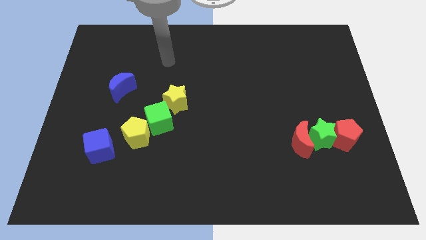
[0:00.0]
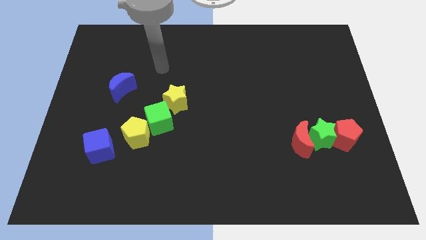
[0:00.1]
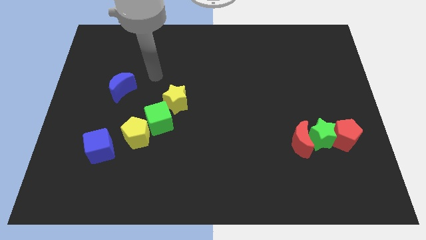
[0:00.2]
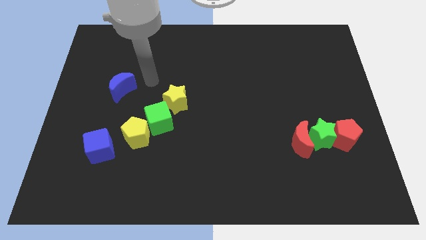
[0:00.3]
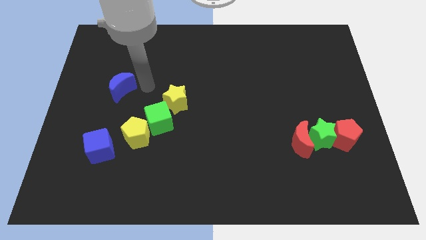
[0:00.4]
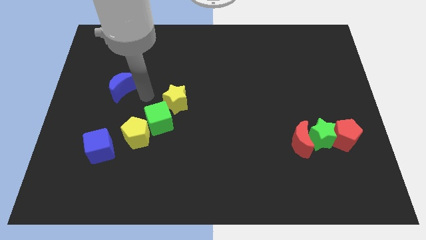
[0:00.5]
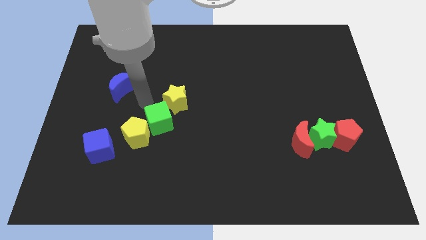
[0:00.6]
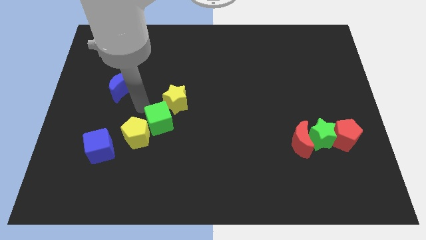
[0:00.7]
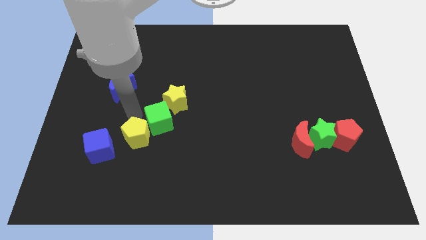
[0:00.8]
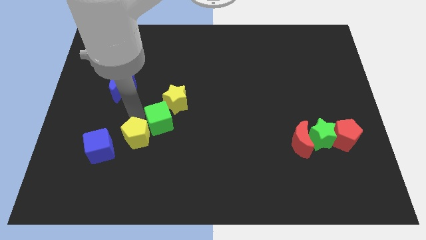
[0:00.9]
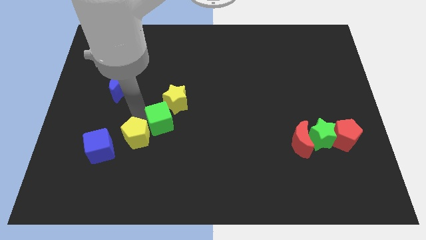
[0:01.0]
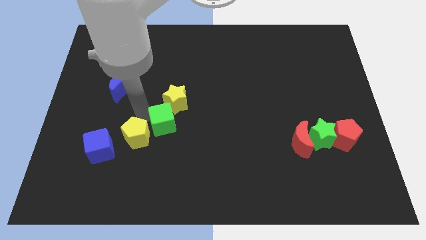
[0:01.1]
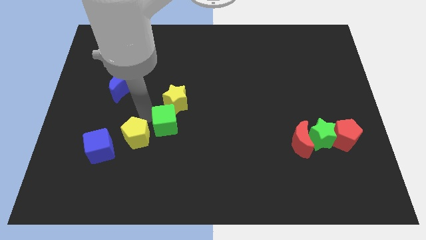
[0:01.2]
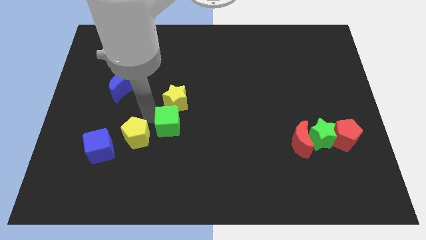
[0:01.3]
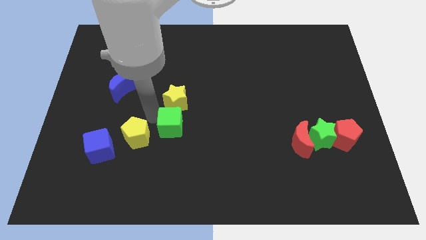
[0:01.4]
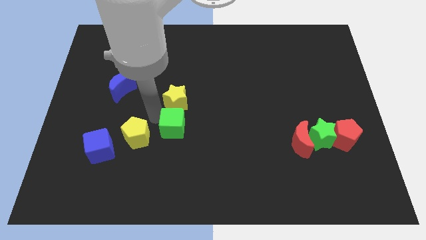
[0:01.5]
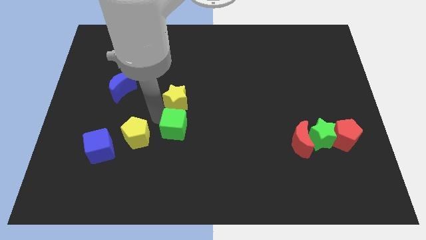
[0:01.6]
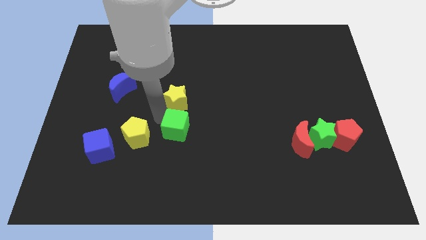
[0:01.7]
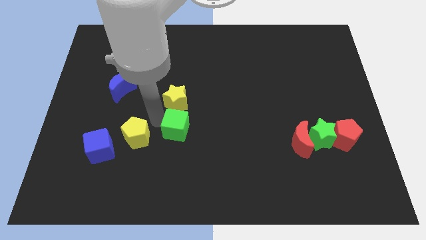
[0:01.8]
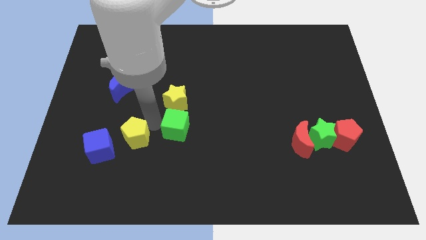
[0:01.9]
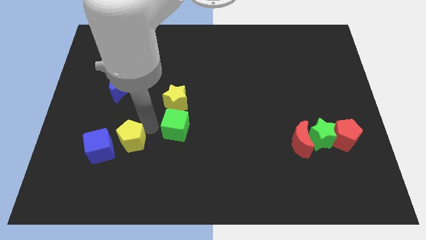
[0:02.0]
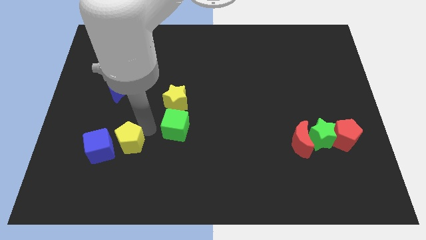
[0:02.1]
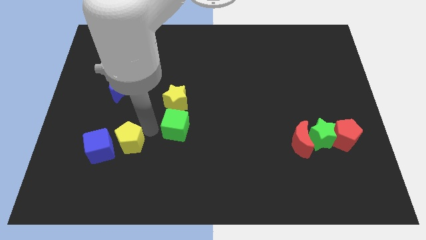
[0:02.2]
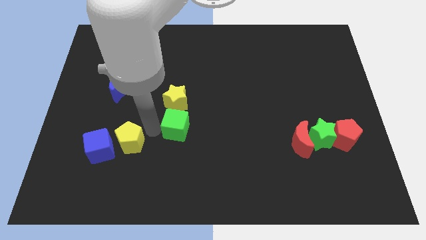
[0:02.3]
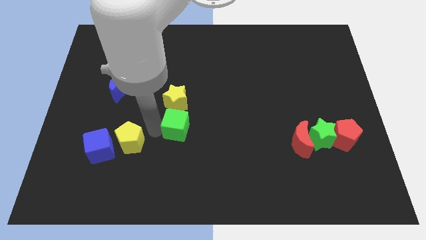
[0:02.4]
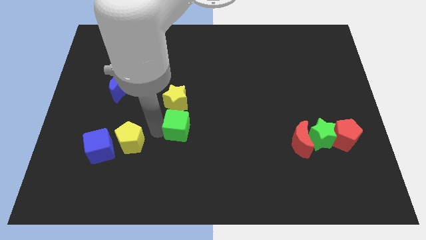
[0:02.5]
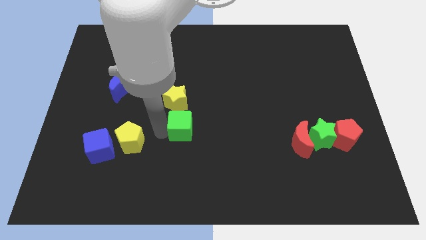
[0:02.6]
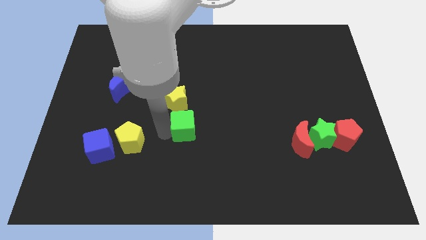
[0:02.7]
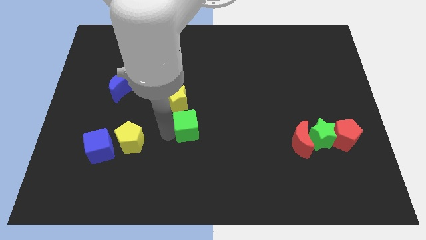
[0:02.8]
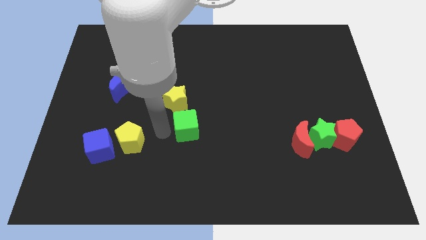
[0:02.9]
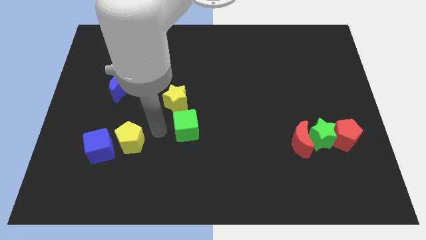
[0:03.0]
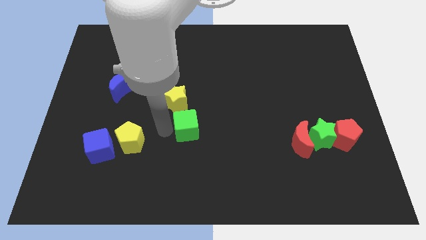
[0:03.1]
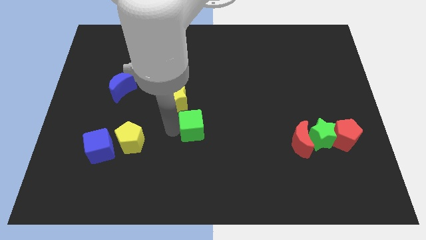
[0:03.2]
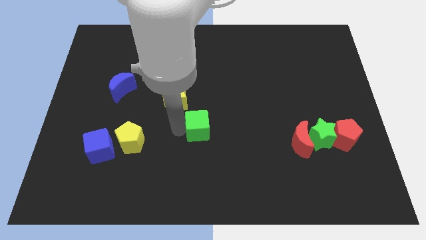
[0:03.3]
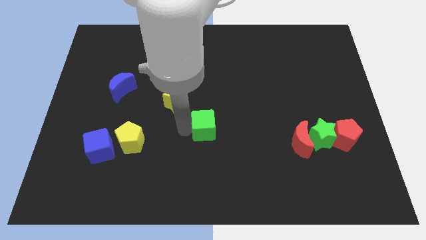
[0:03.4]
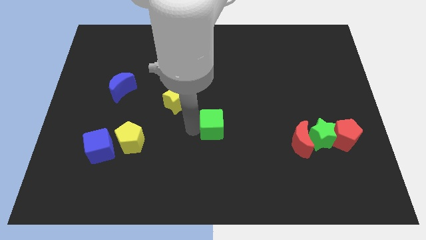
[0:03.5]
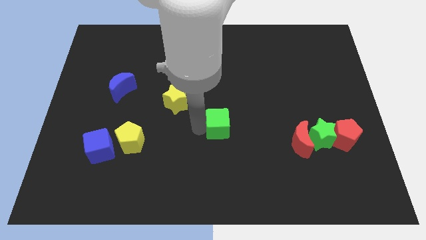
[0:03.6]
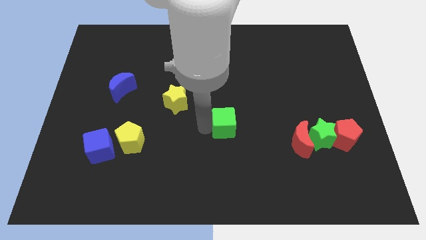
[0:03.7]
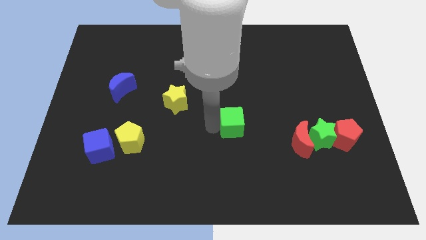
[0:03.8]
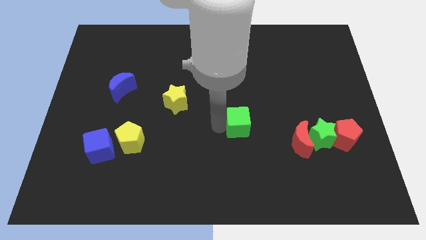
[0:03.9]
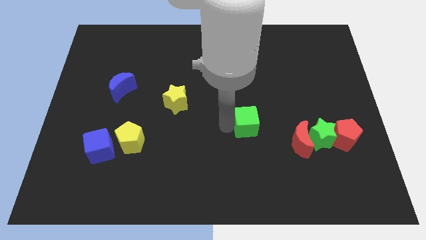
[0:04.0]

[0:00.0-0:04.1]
slide the green cube to the right

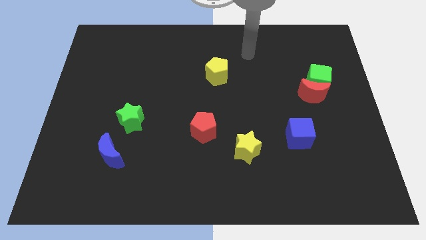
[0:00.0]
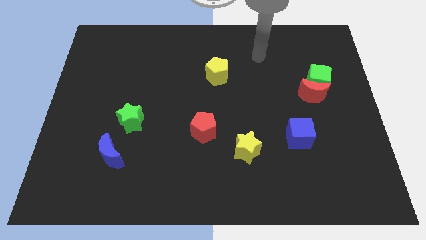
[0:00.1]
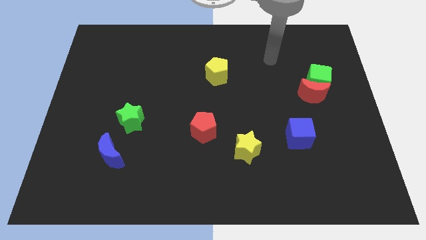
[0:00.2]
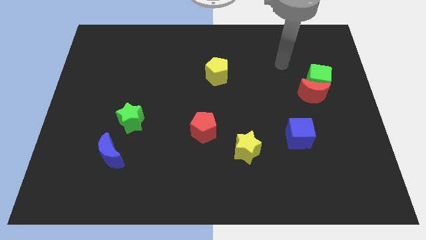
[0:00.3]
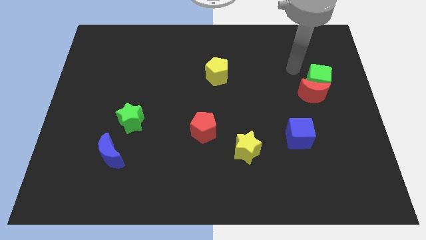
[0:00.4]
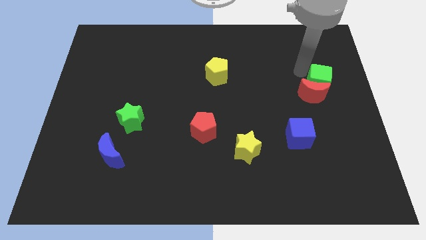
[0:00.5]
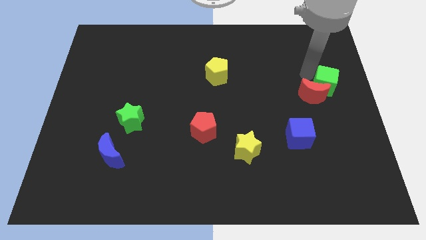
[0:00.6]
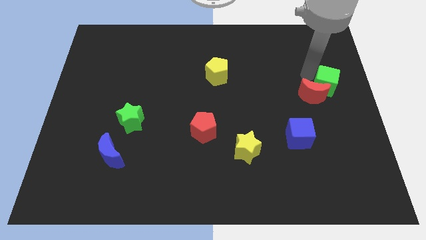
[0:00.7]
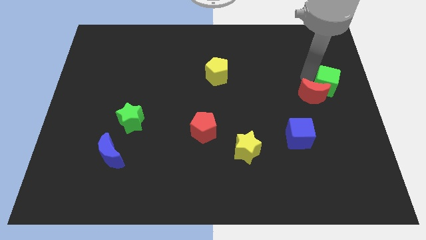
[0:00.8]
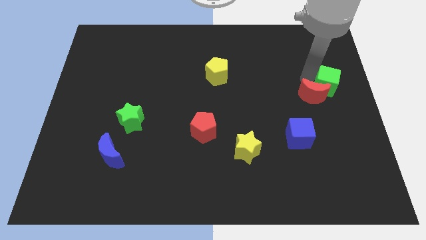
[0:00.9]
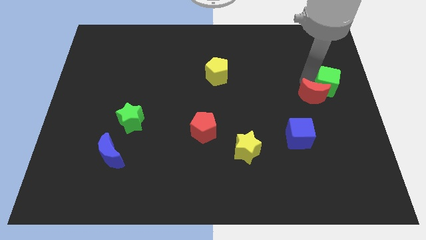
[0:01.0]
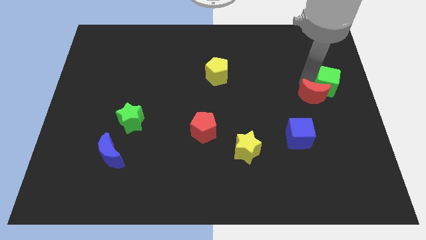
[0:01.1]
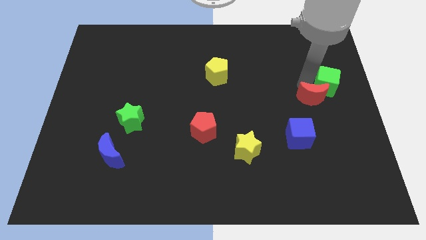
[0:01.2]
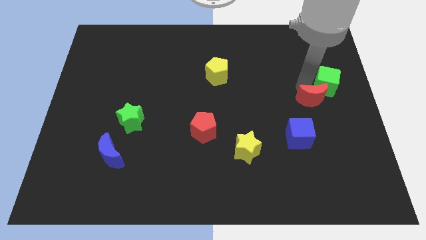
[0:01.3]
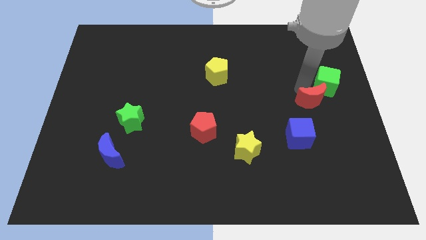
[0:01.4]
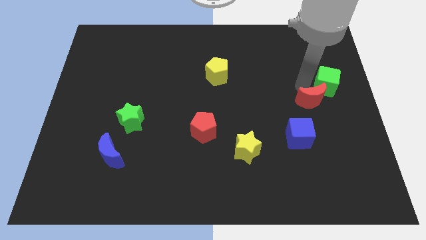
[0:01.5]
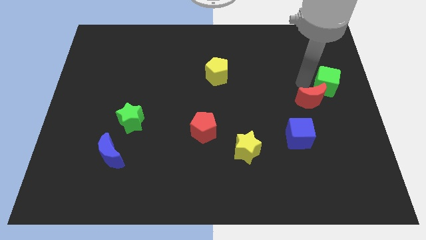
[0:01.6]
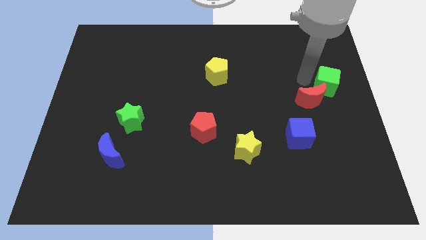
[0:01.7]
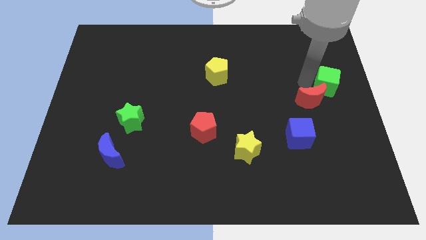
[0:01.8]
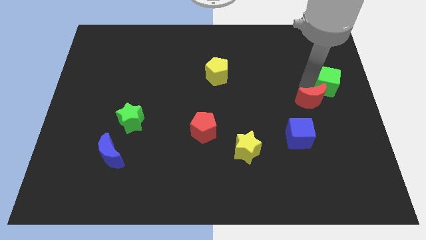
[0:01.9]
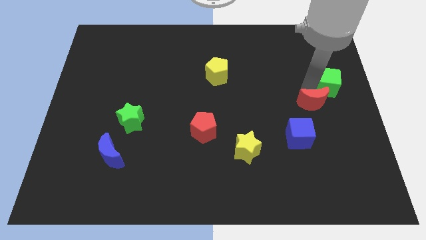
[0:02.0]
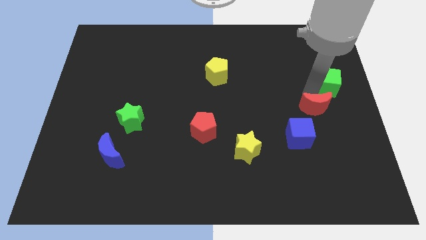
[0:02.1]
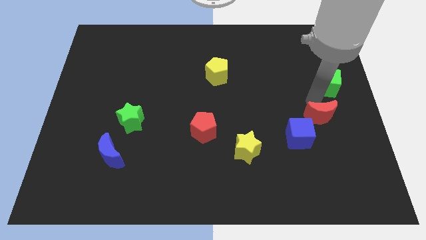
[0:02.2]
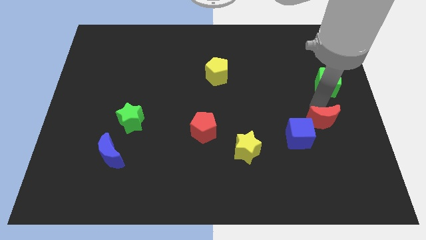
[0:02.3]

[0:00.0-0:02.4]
slide the red moon down a bit

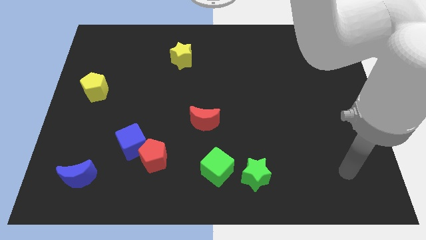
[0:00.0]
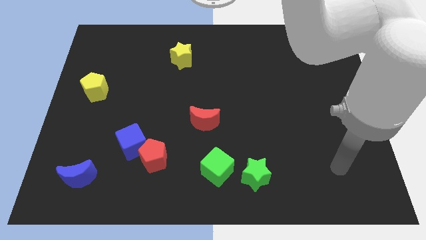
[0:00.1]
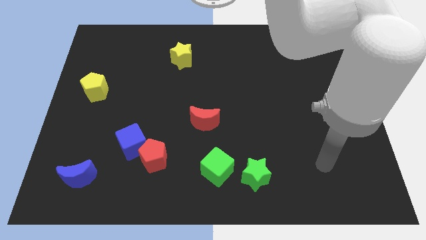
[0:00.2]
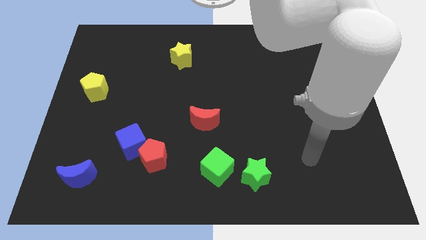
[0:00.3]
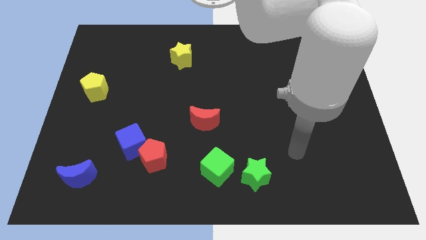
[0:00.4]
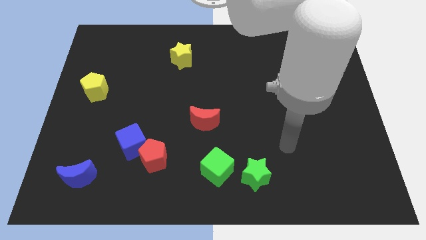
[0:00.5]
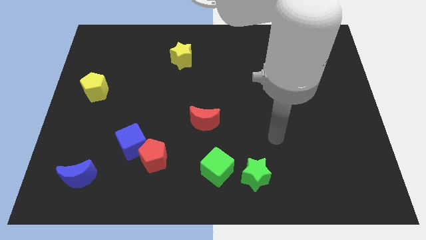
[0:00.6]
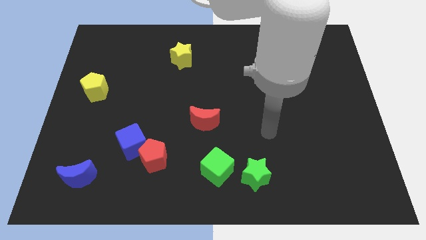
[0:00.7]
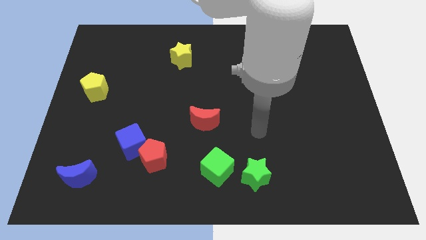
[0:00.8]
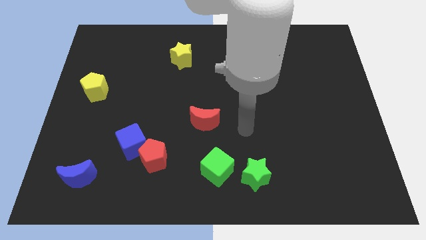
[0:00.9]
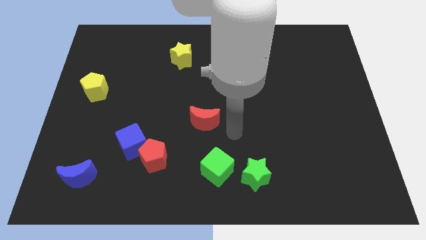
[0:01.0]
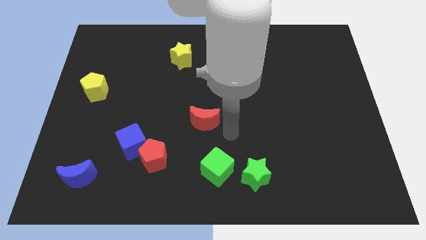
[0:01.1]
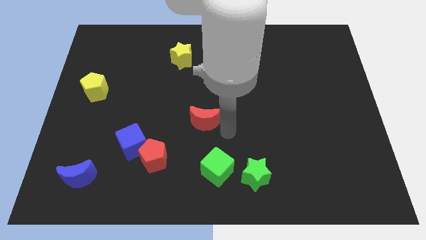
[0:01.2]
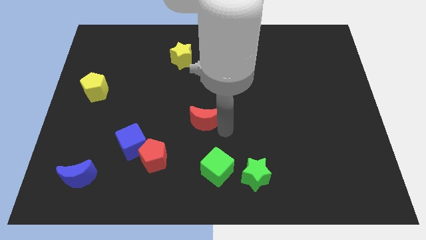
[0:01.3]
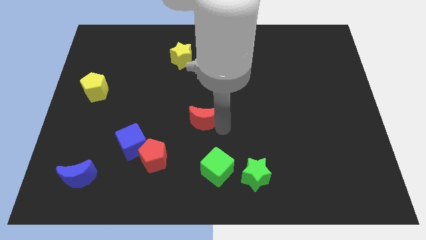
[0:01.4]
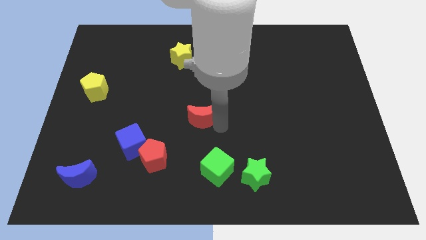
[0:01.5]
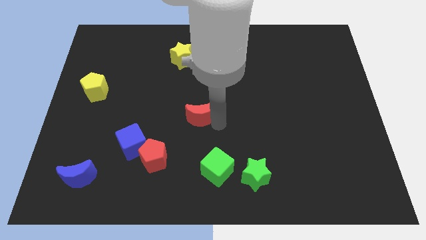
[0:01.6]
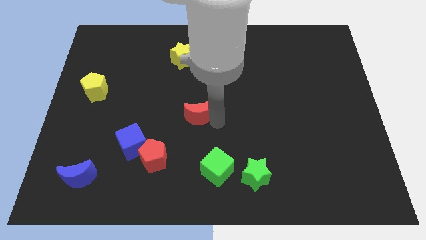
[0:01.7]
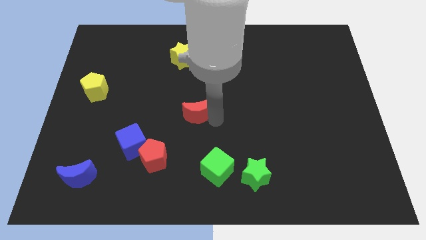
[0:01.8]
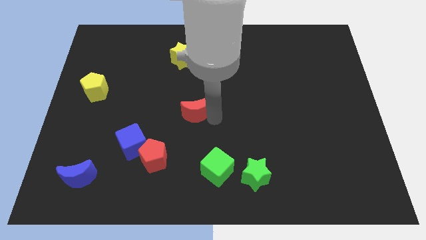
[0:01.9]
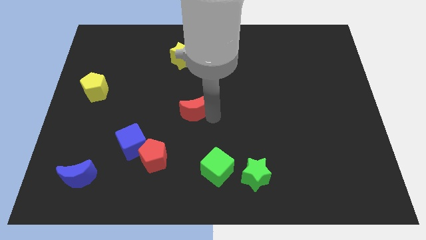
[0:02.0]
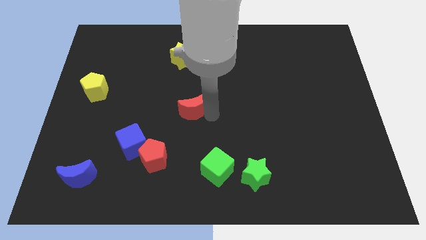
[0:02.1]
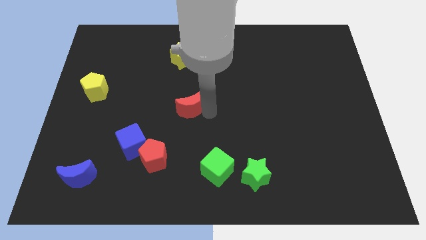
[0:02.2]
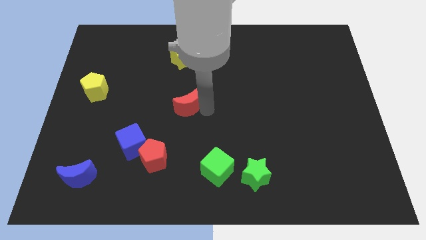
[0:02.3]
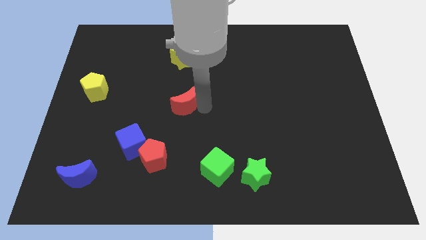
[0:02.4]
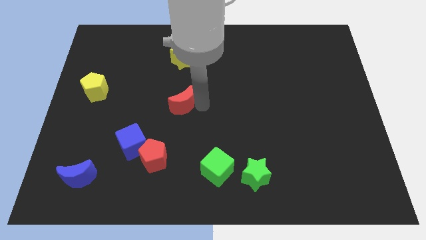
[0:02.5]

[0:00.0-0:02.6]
slightly slide the red moon up and to the left
